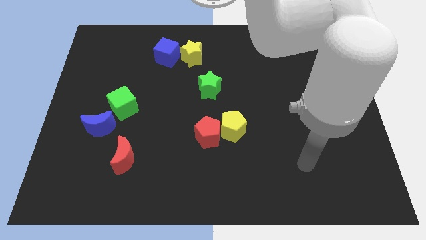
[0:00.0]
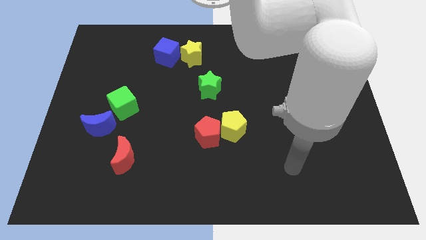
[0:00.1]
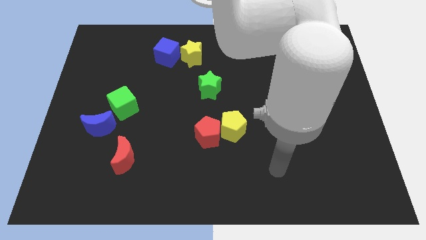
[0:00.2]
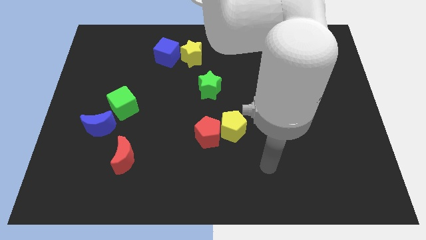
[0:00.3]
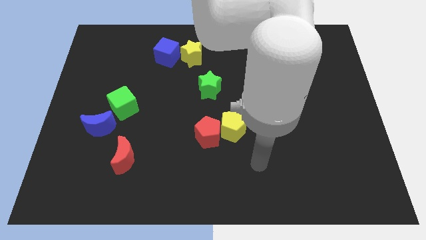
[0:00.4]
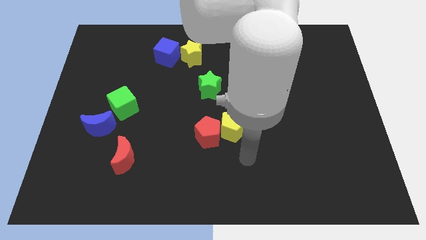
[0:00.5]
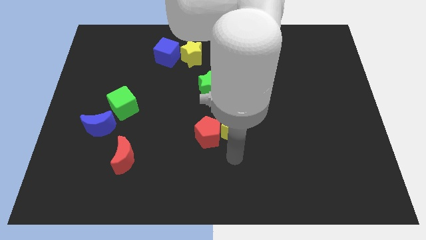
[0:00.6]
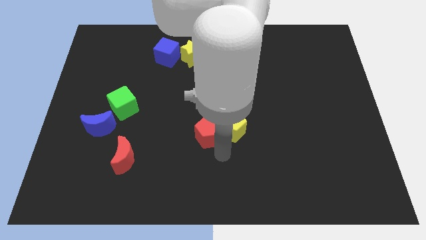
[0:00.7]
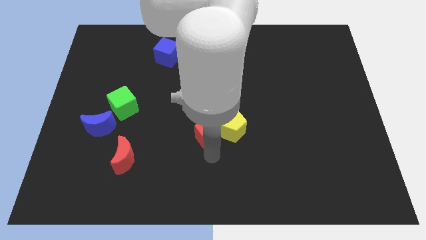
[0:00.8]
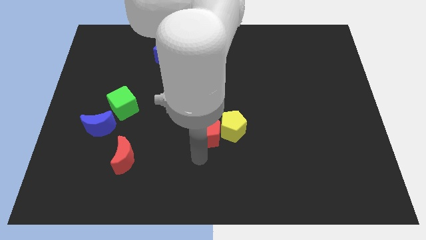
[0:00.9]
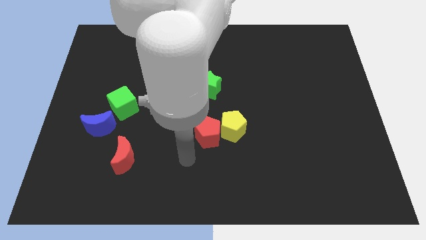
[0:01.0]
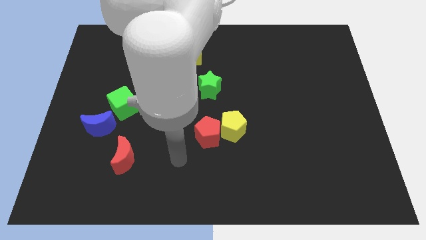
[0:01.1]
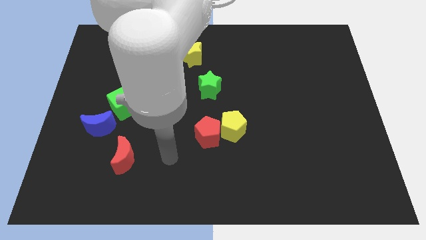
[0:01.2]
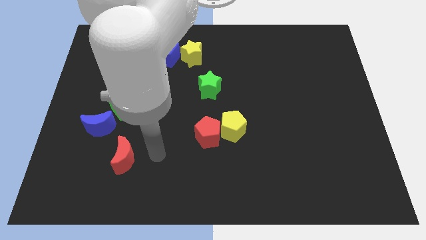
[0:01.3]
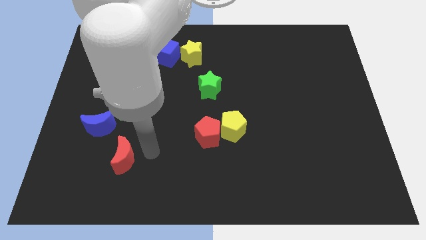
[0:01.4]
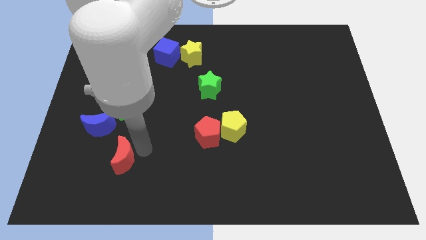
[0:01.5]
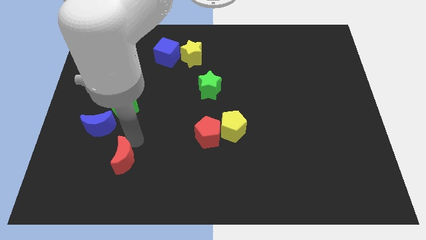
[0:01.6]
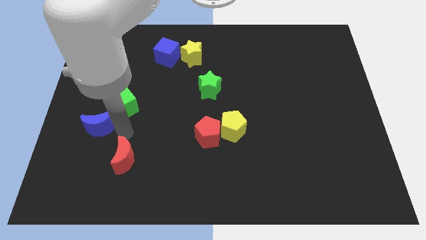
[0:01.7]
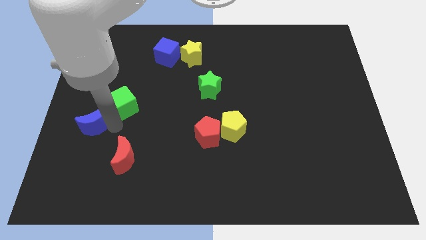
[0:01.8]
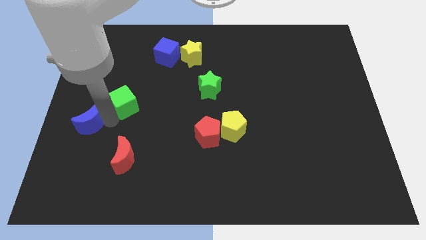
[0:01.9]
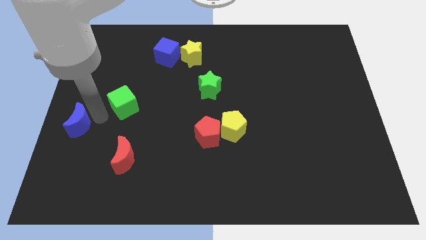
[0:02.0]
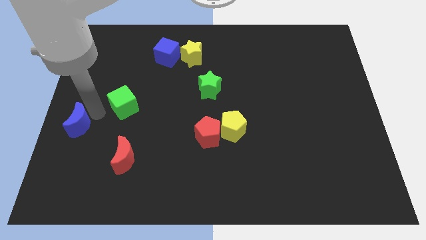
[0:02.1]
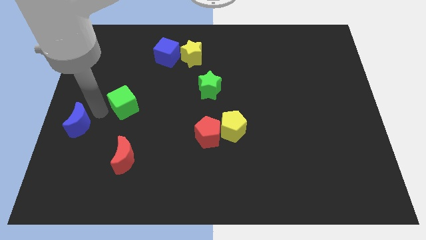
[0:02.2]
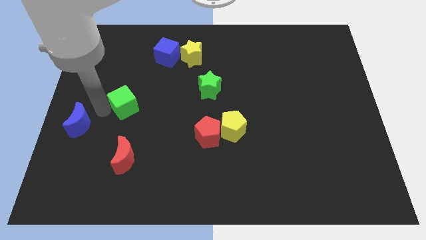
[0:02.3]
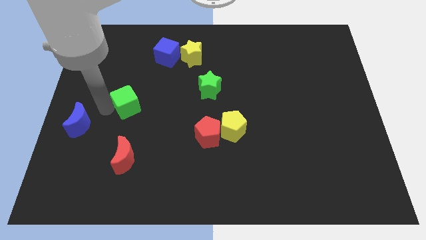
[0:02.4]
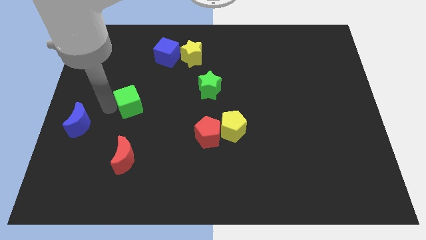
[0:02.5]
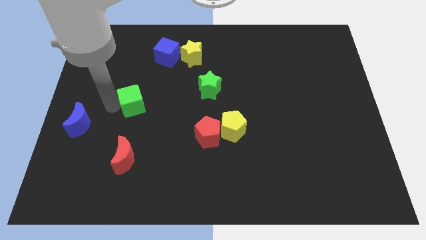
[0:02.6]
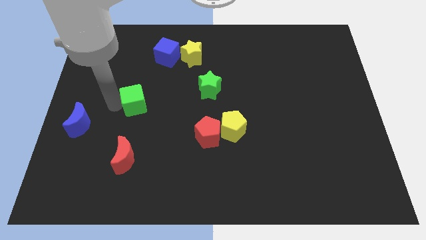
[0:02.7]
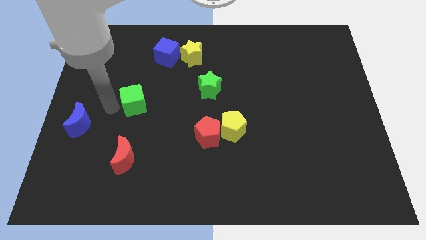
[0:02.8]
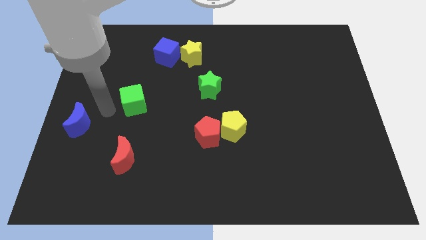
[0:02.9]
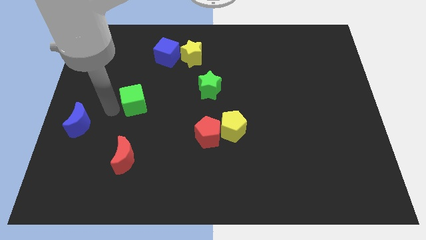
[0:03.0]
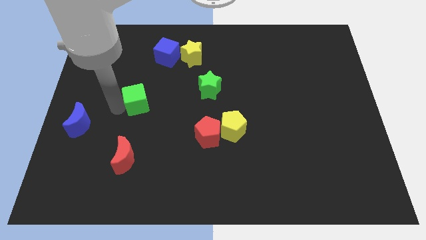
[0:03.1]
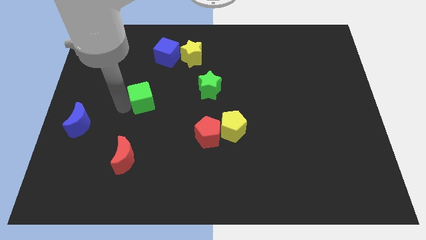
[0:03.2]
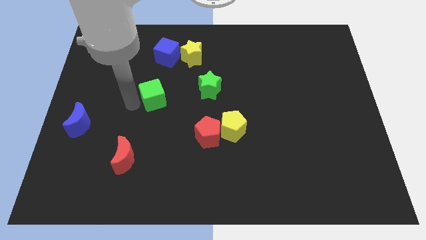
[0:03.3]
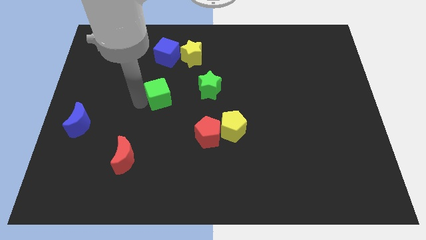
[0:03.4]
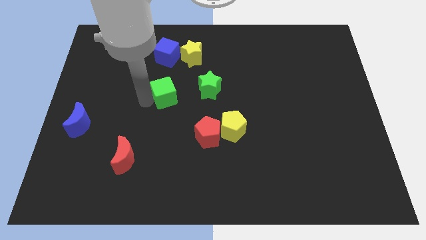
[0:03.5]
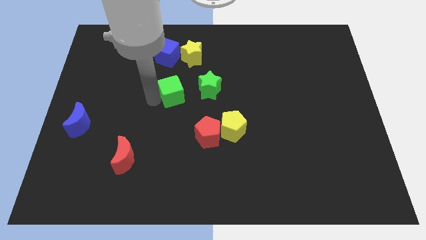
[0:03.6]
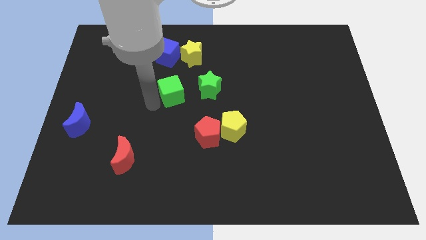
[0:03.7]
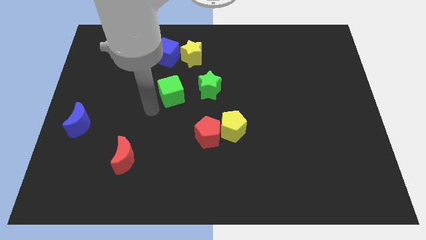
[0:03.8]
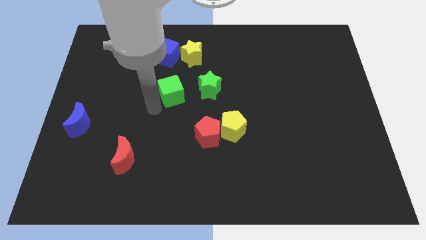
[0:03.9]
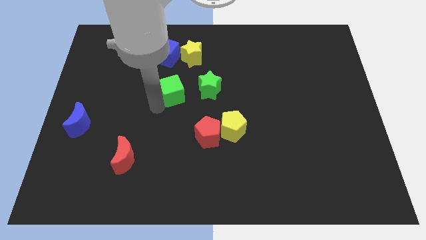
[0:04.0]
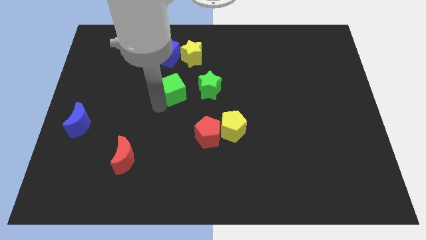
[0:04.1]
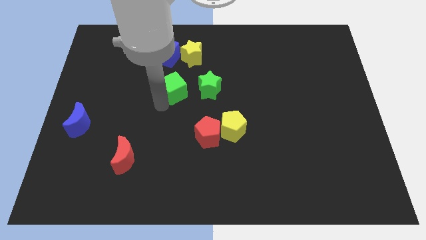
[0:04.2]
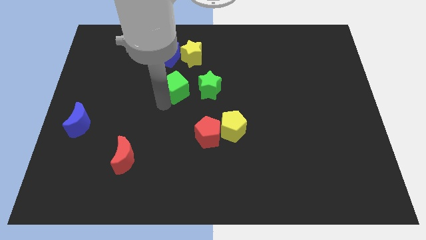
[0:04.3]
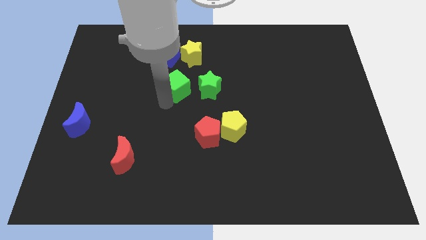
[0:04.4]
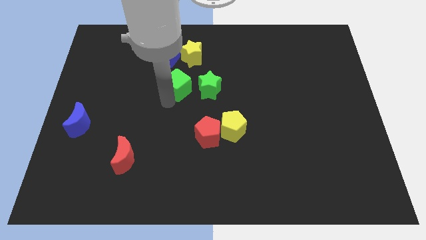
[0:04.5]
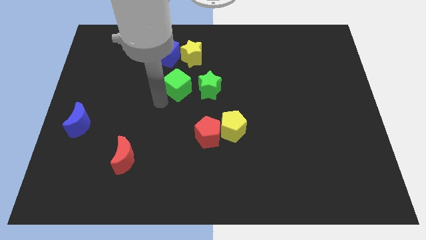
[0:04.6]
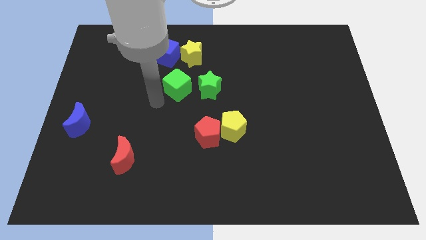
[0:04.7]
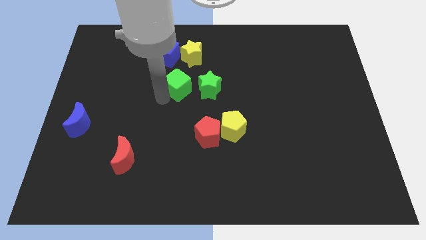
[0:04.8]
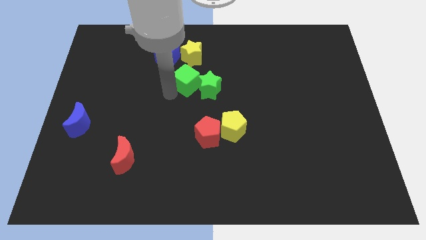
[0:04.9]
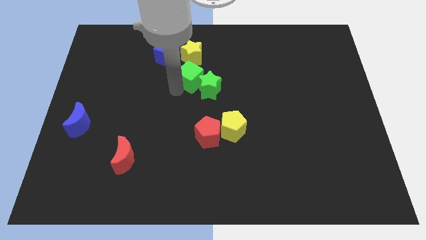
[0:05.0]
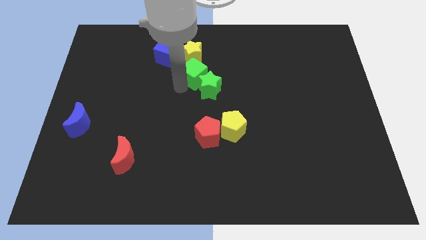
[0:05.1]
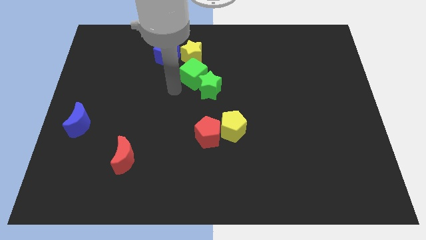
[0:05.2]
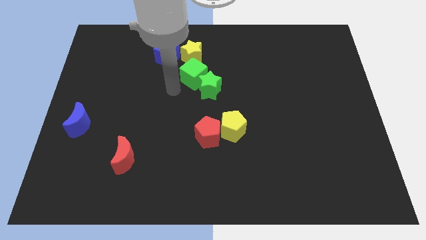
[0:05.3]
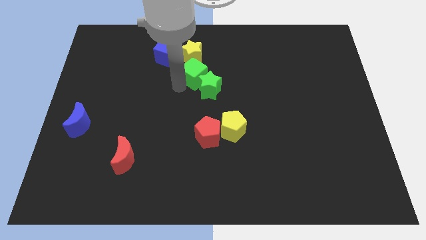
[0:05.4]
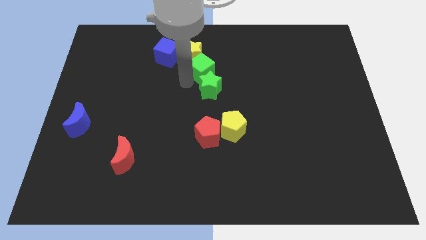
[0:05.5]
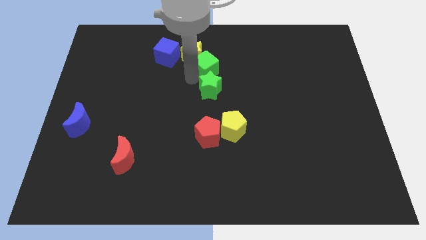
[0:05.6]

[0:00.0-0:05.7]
slide the green cube right of the yellow star
